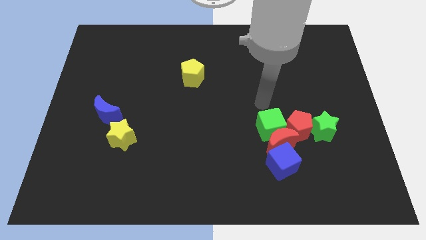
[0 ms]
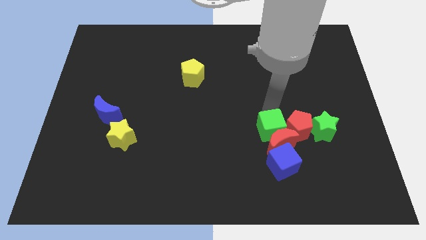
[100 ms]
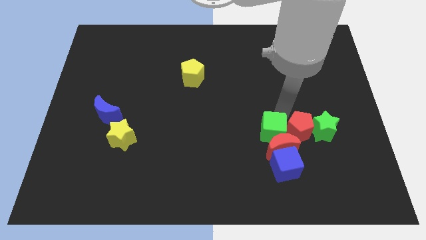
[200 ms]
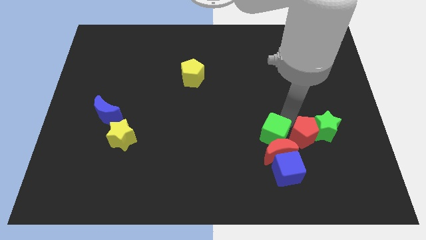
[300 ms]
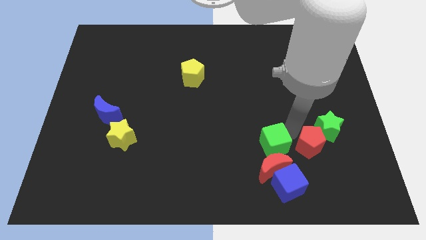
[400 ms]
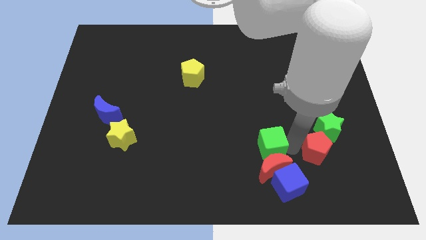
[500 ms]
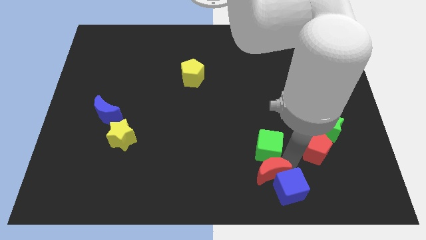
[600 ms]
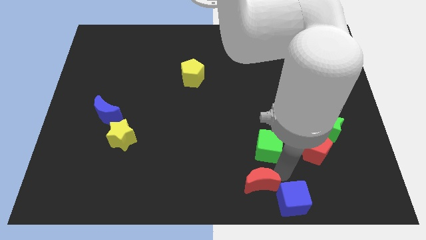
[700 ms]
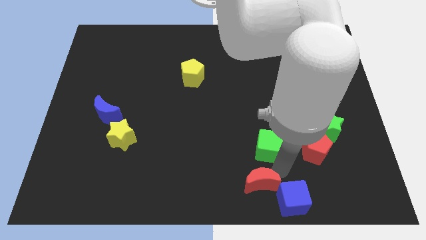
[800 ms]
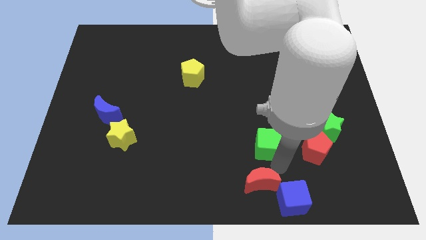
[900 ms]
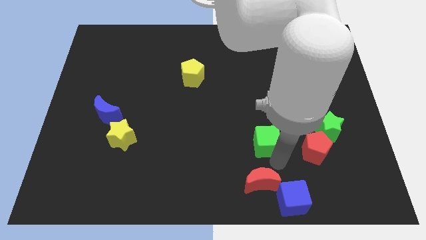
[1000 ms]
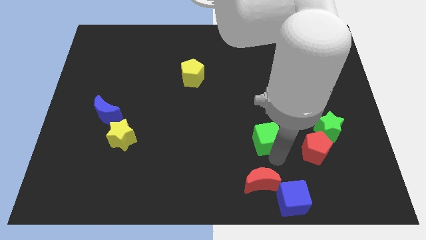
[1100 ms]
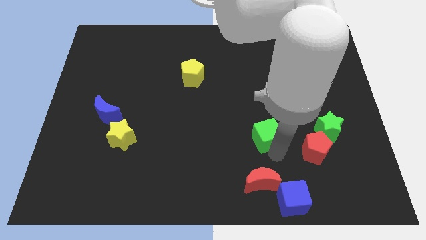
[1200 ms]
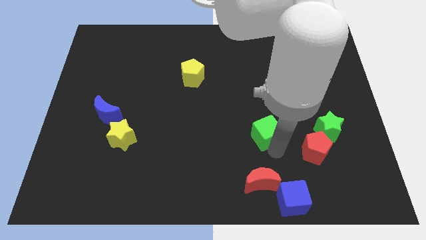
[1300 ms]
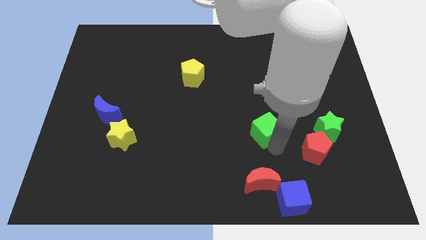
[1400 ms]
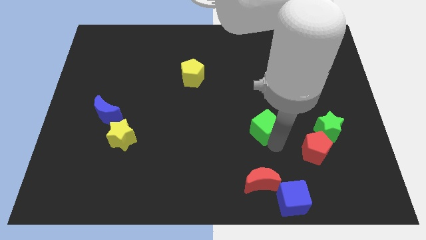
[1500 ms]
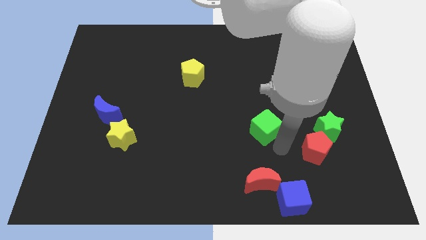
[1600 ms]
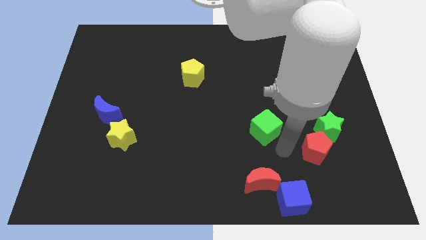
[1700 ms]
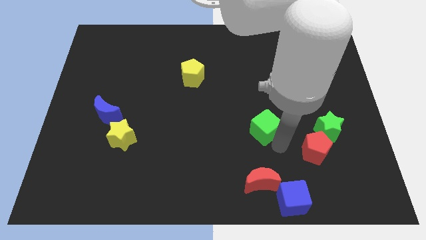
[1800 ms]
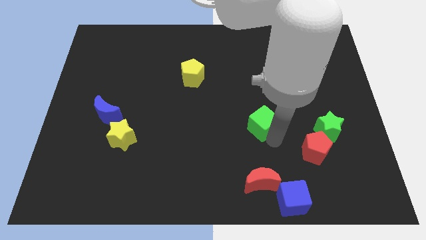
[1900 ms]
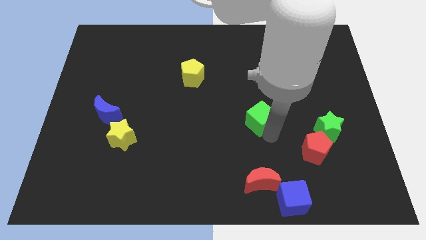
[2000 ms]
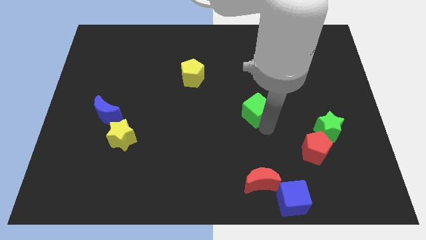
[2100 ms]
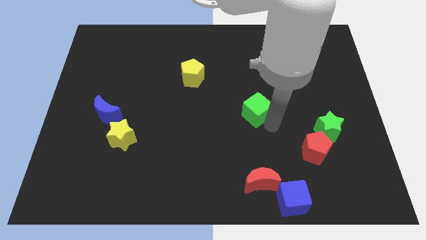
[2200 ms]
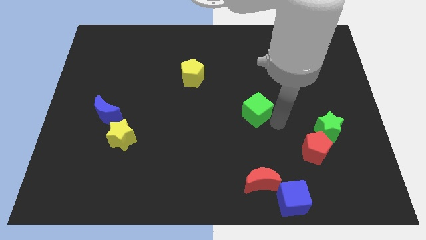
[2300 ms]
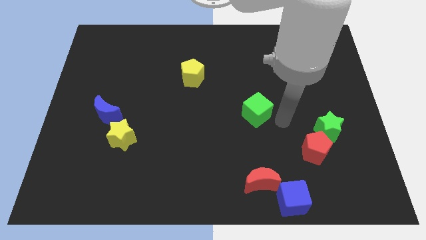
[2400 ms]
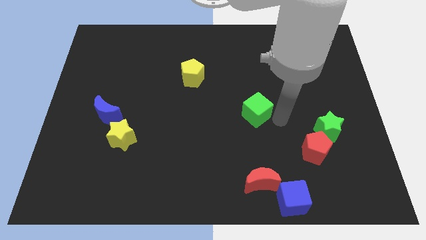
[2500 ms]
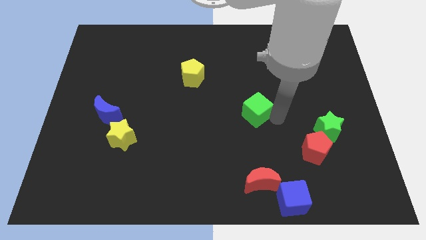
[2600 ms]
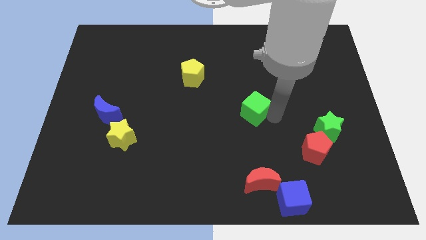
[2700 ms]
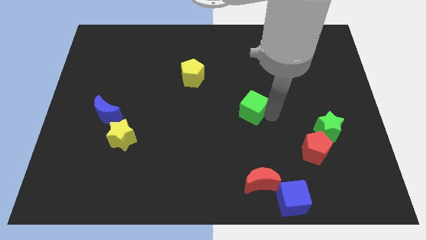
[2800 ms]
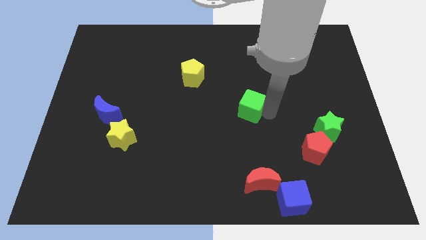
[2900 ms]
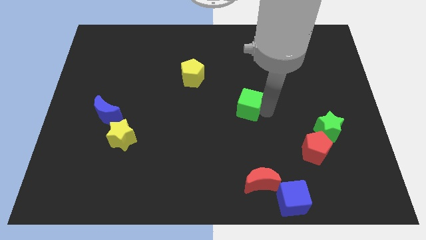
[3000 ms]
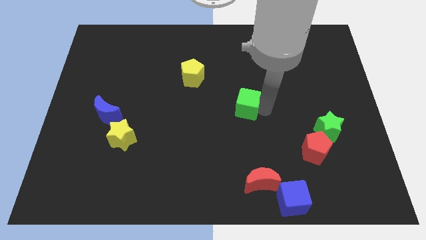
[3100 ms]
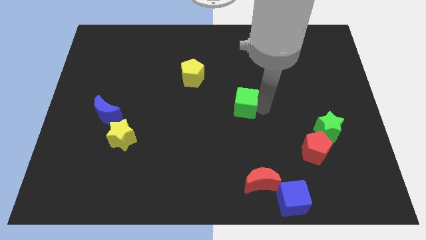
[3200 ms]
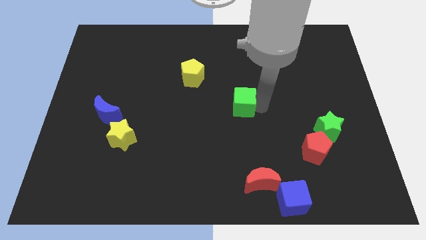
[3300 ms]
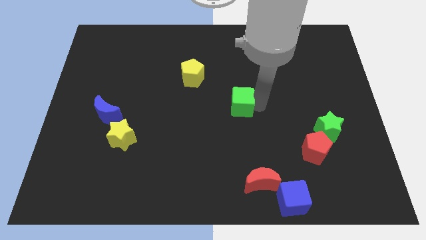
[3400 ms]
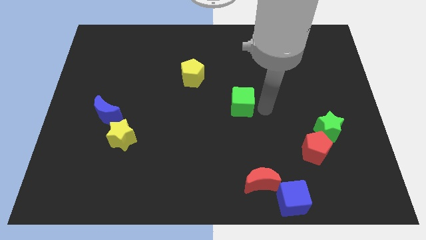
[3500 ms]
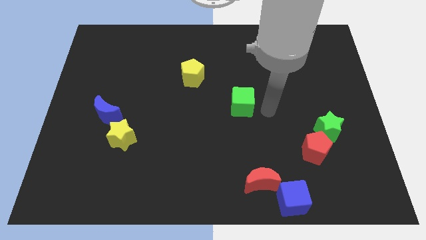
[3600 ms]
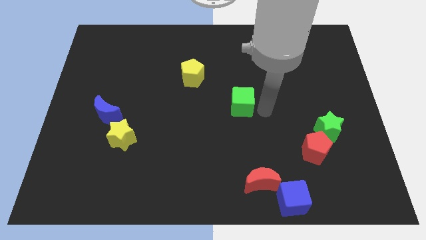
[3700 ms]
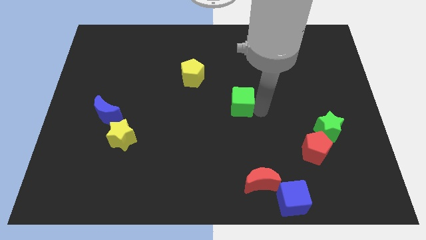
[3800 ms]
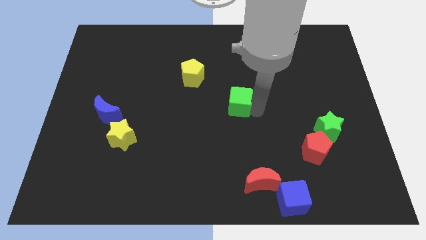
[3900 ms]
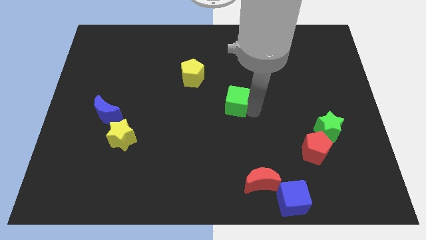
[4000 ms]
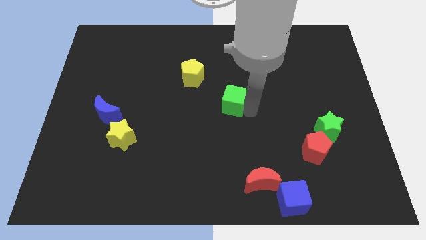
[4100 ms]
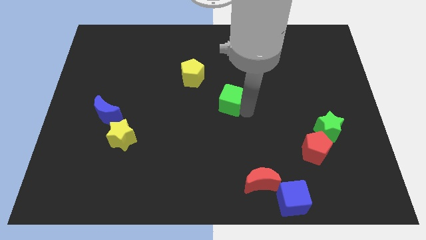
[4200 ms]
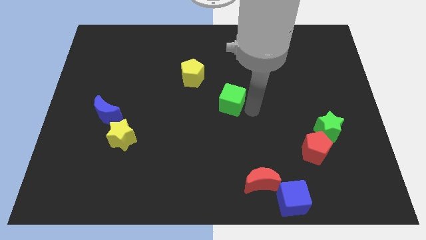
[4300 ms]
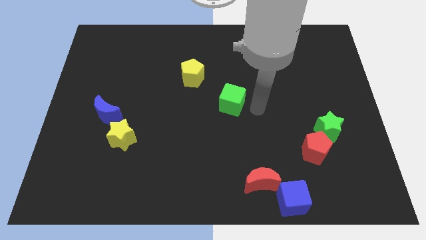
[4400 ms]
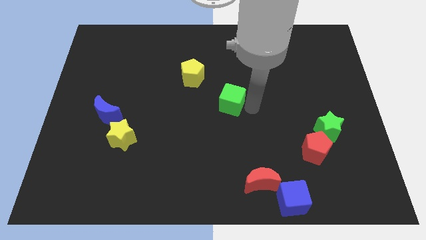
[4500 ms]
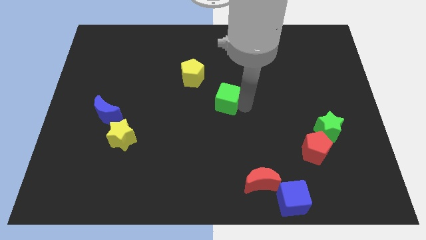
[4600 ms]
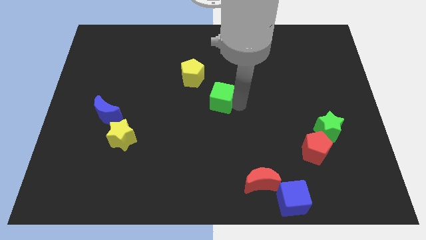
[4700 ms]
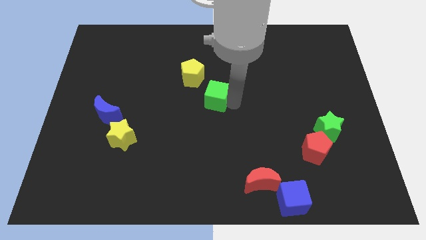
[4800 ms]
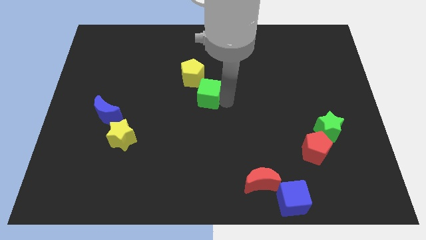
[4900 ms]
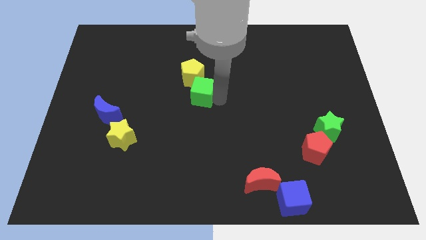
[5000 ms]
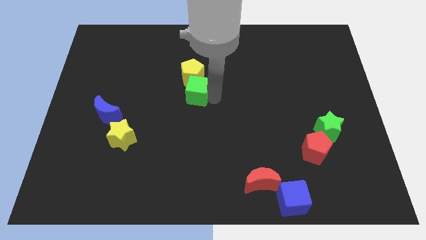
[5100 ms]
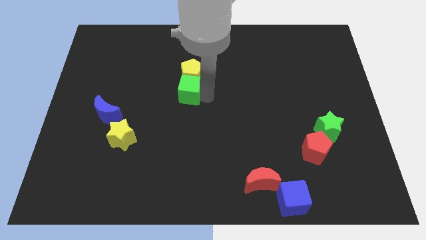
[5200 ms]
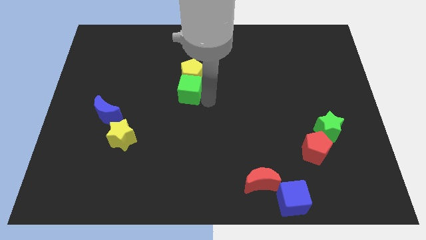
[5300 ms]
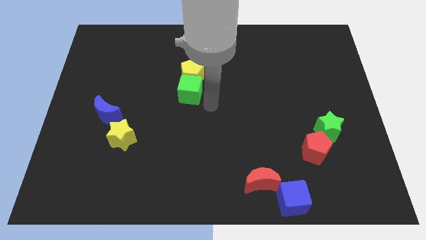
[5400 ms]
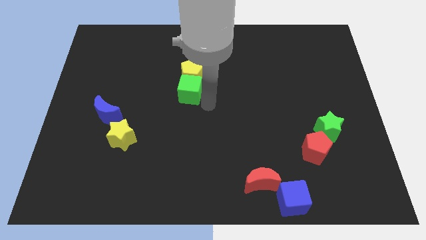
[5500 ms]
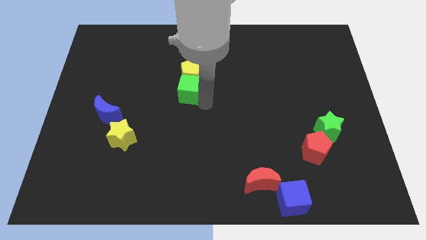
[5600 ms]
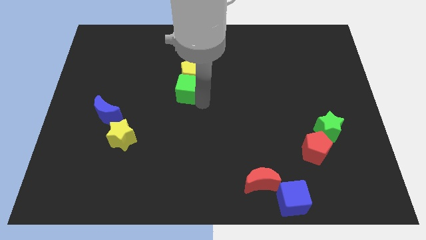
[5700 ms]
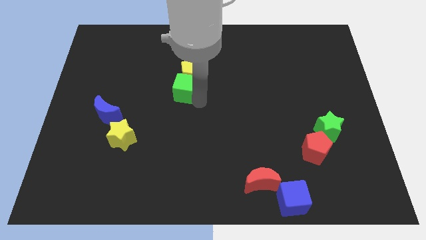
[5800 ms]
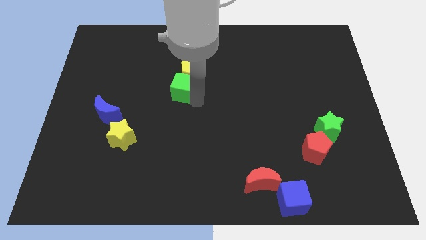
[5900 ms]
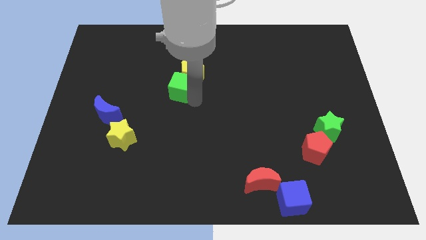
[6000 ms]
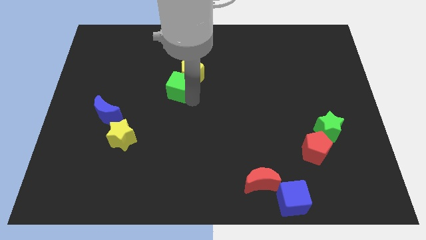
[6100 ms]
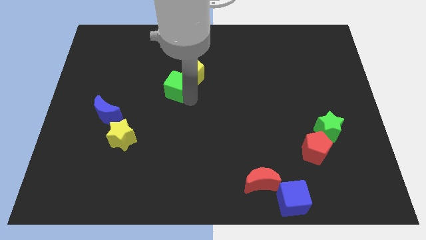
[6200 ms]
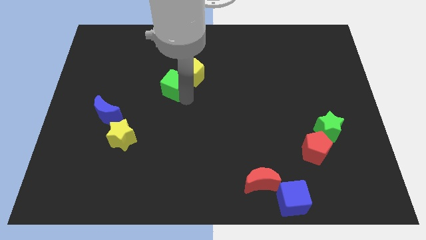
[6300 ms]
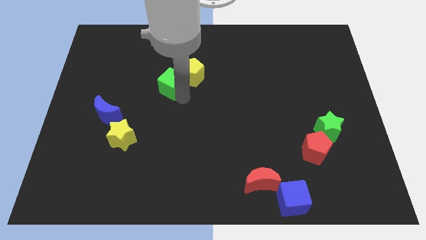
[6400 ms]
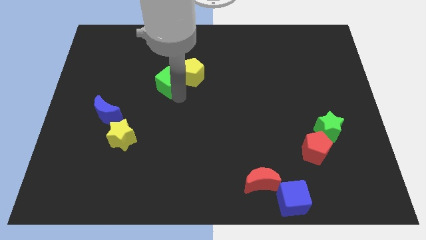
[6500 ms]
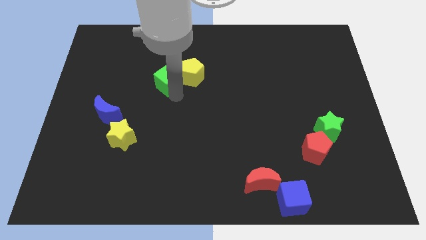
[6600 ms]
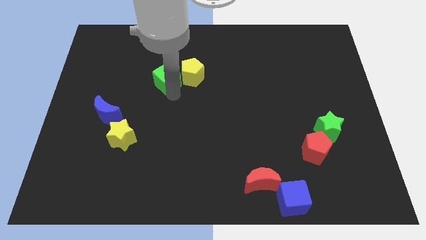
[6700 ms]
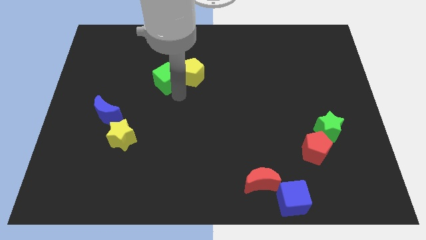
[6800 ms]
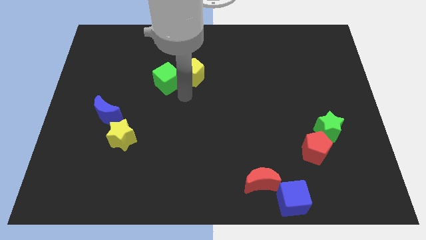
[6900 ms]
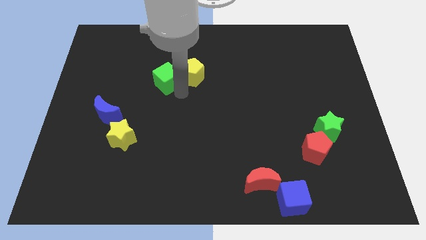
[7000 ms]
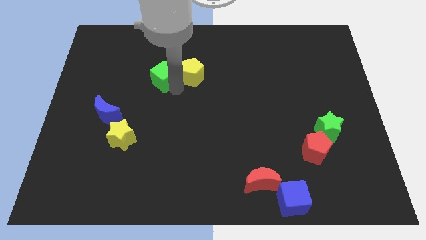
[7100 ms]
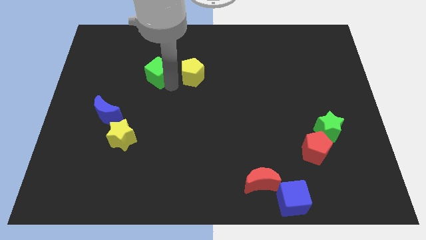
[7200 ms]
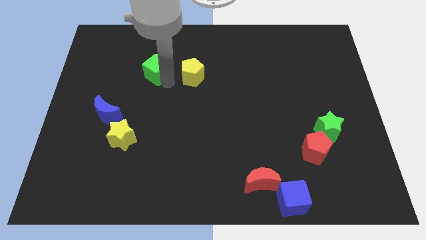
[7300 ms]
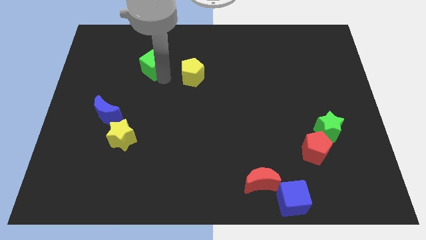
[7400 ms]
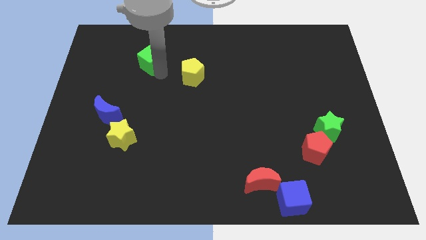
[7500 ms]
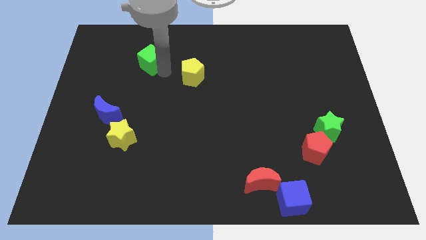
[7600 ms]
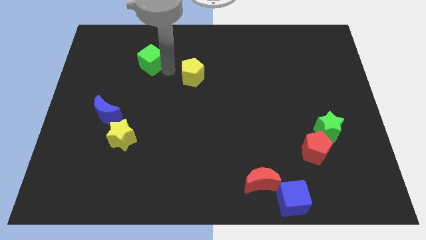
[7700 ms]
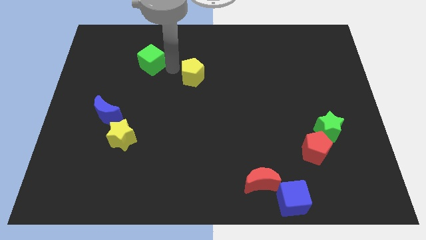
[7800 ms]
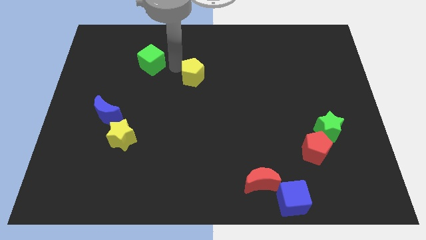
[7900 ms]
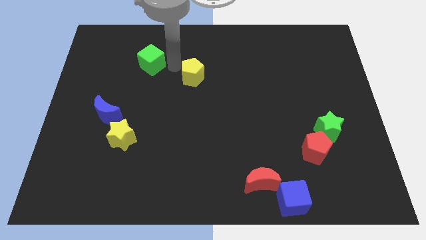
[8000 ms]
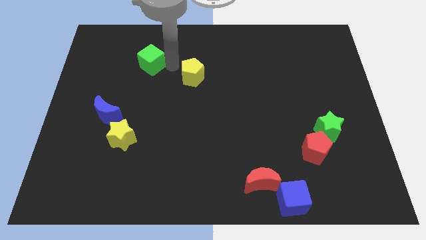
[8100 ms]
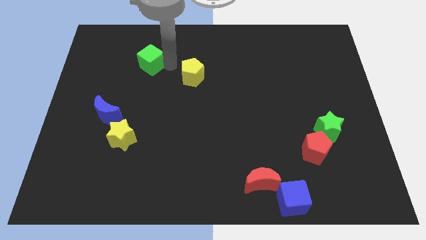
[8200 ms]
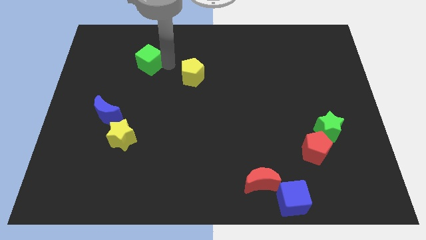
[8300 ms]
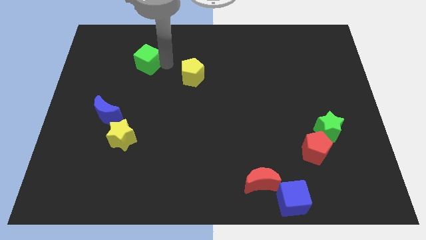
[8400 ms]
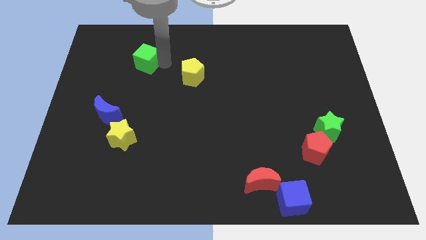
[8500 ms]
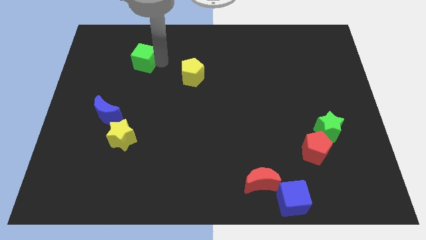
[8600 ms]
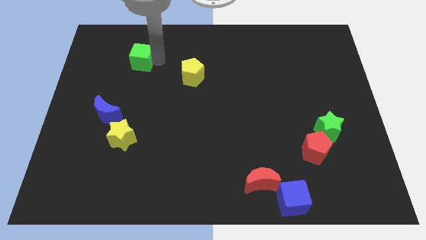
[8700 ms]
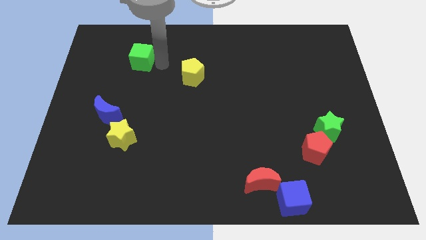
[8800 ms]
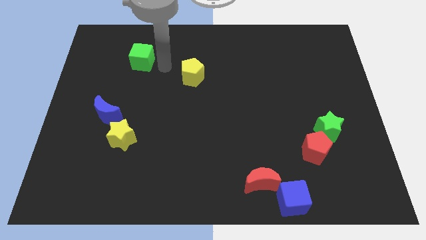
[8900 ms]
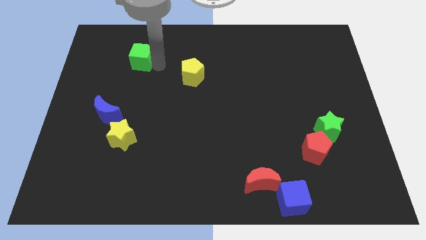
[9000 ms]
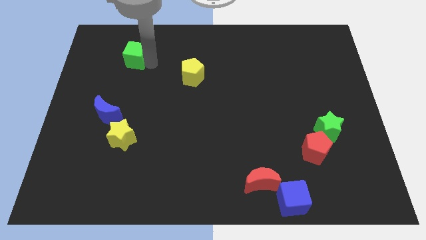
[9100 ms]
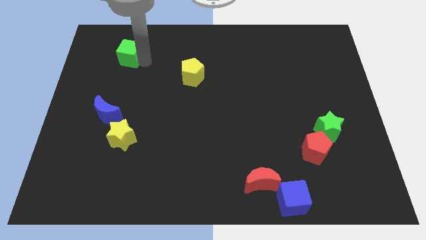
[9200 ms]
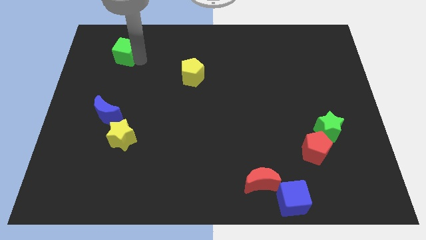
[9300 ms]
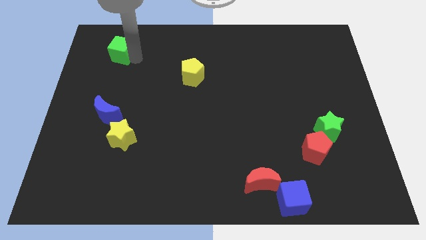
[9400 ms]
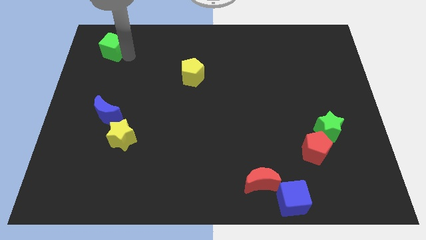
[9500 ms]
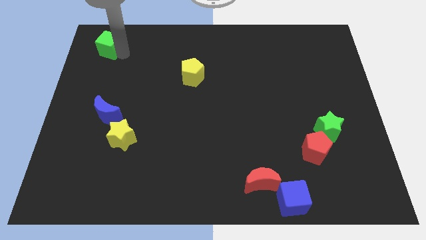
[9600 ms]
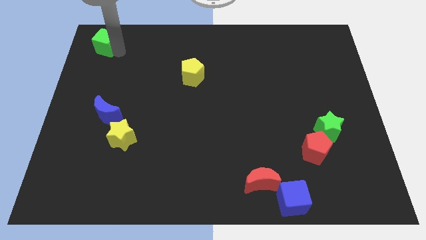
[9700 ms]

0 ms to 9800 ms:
slide the green cube to the upper left corner
